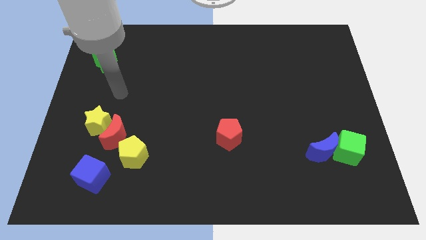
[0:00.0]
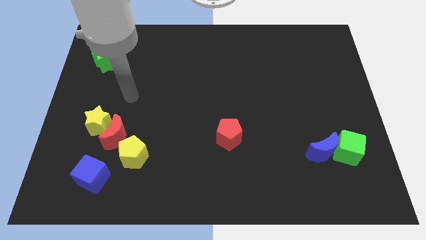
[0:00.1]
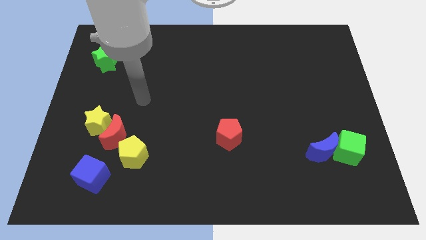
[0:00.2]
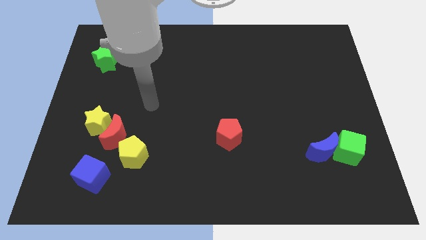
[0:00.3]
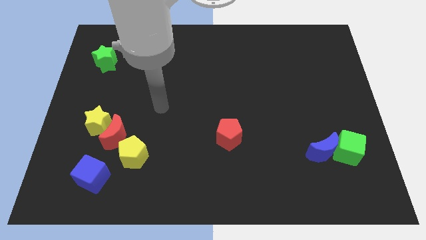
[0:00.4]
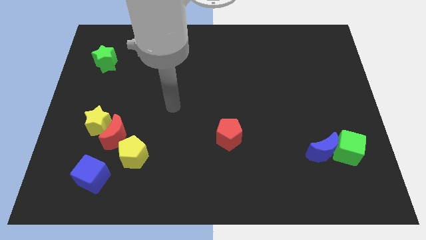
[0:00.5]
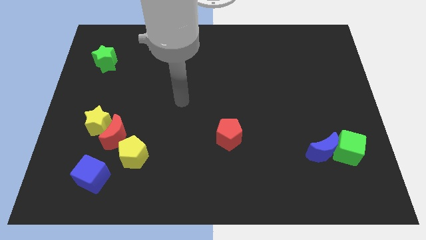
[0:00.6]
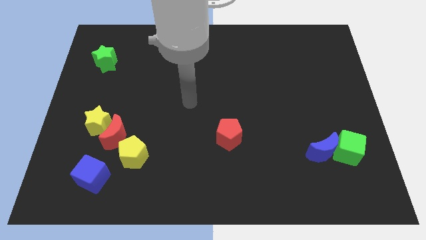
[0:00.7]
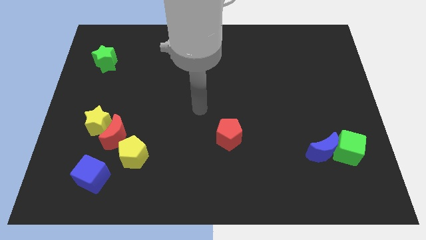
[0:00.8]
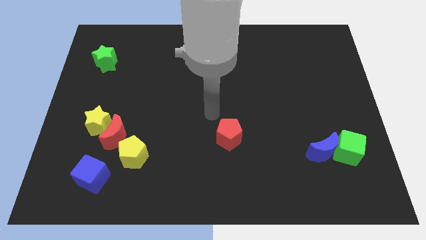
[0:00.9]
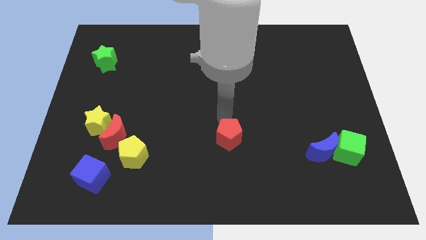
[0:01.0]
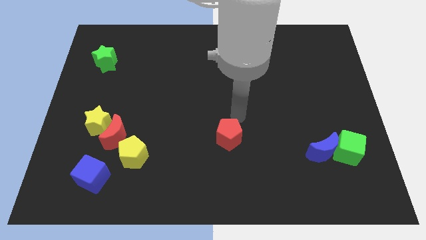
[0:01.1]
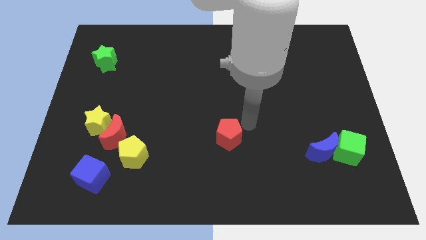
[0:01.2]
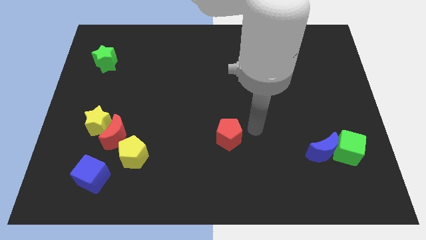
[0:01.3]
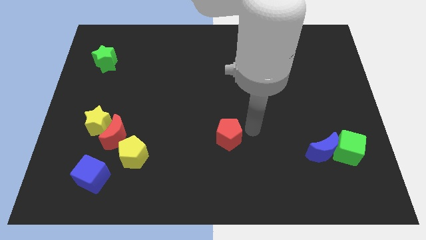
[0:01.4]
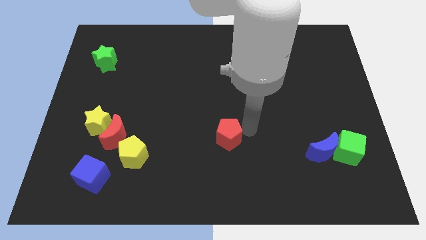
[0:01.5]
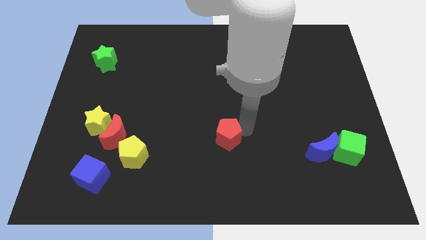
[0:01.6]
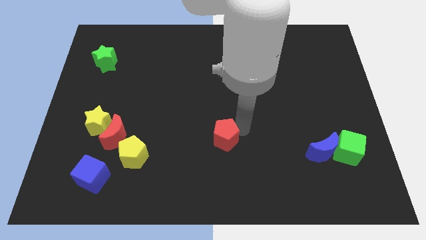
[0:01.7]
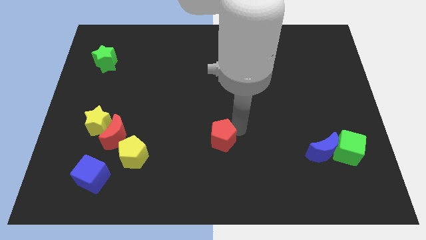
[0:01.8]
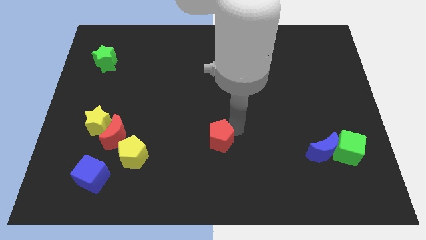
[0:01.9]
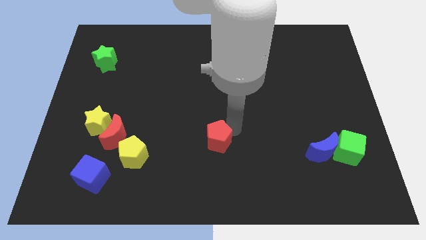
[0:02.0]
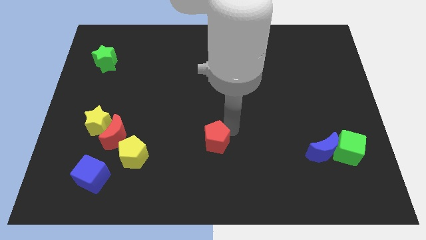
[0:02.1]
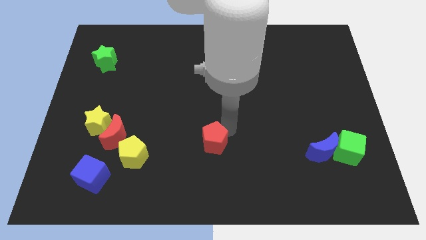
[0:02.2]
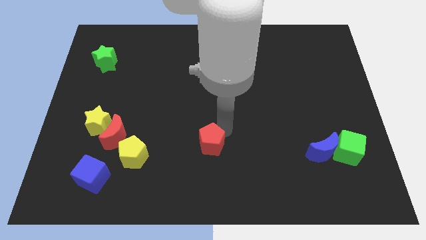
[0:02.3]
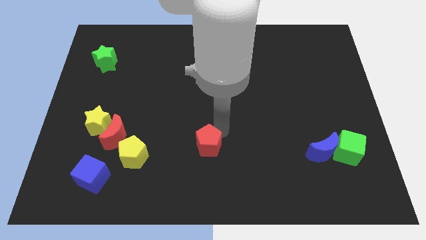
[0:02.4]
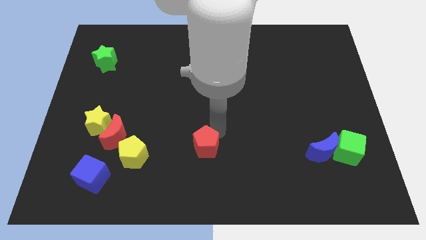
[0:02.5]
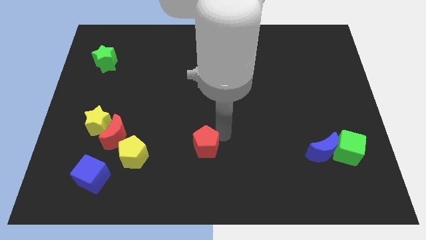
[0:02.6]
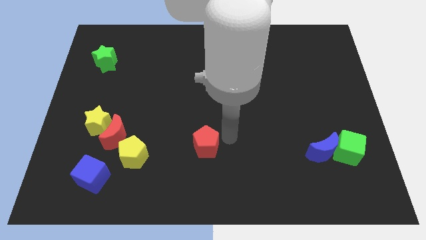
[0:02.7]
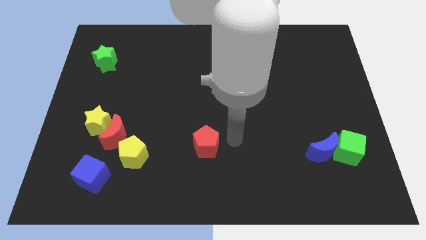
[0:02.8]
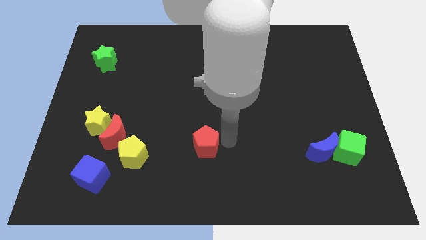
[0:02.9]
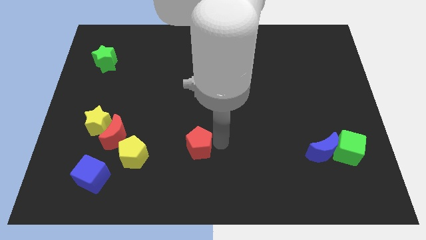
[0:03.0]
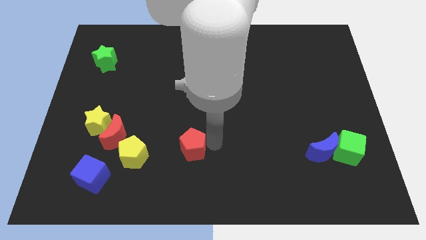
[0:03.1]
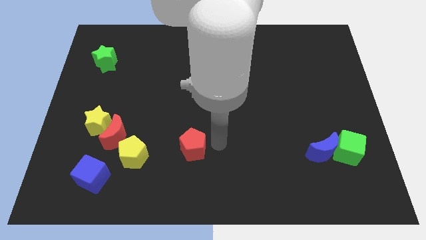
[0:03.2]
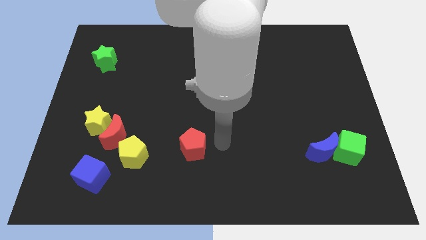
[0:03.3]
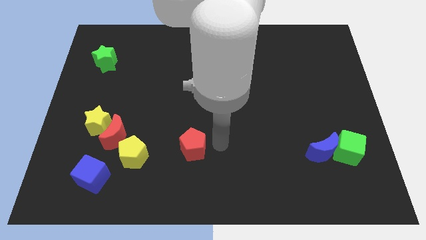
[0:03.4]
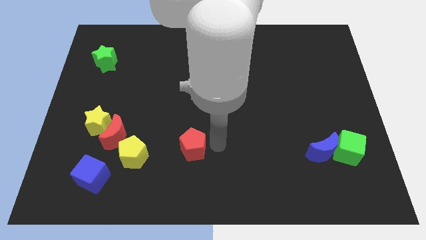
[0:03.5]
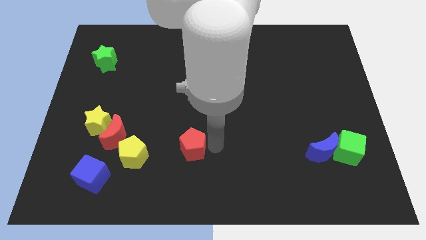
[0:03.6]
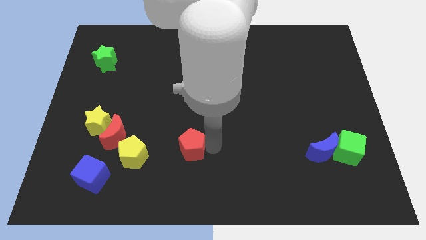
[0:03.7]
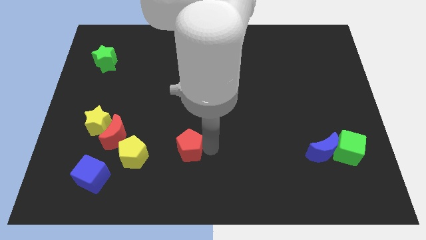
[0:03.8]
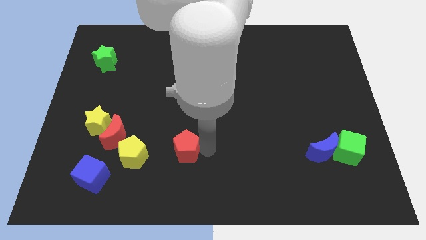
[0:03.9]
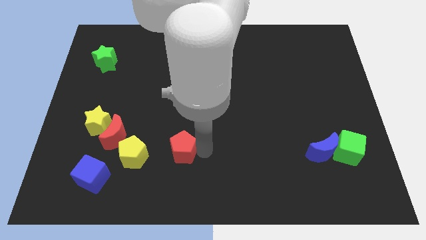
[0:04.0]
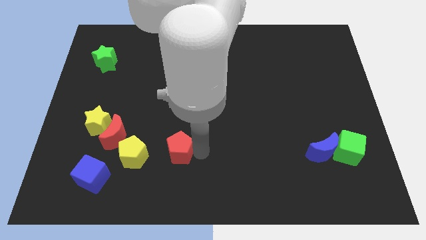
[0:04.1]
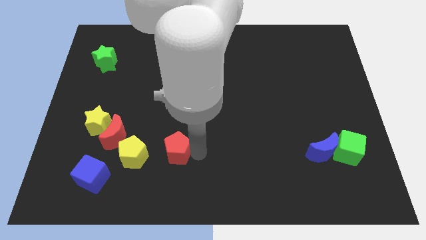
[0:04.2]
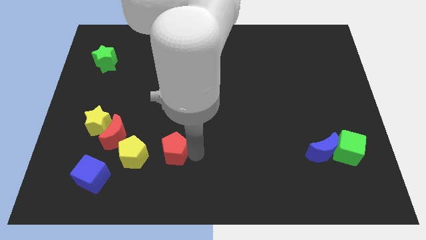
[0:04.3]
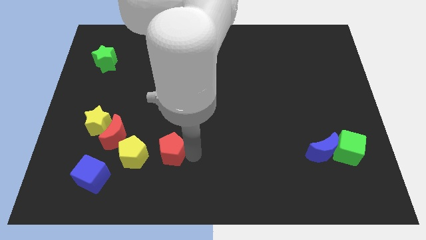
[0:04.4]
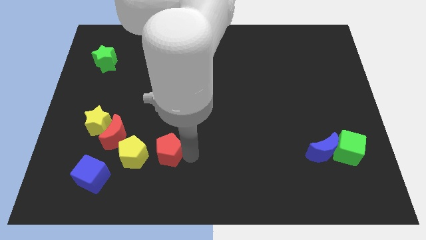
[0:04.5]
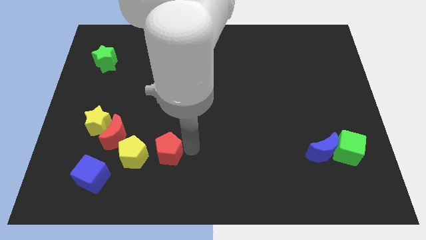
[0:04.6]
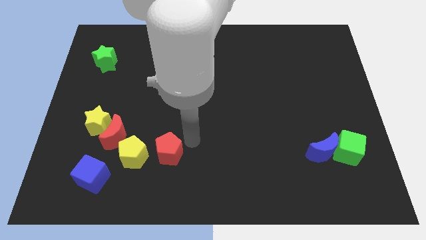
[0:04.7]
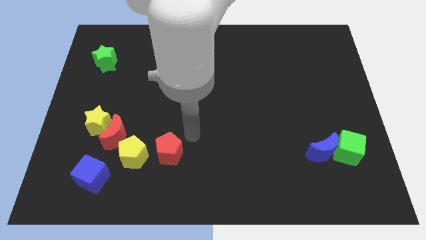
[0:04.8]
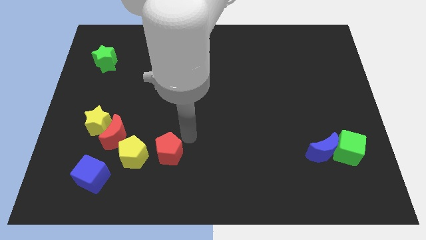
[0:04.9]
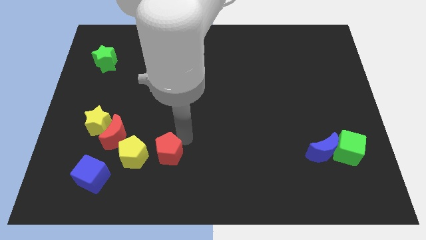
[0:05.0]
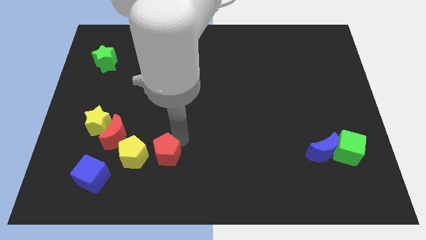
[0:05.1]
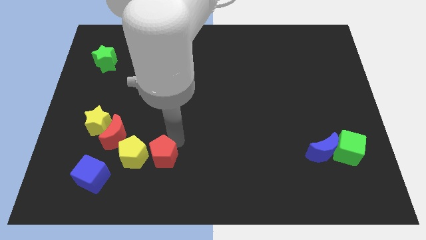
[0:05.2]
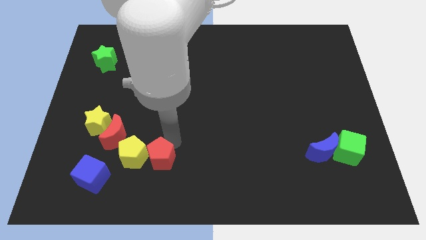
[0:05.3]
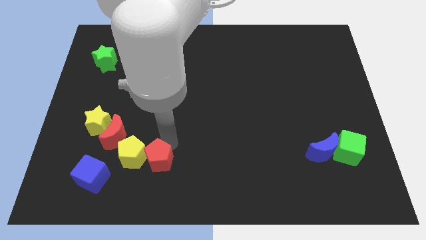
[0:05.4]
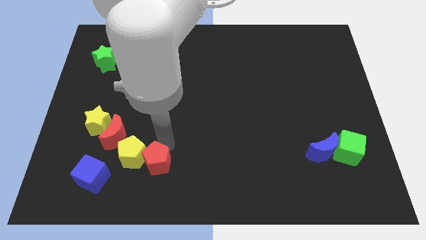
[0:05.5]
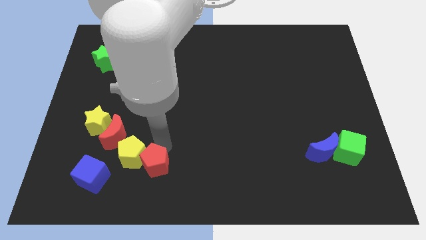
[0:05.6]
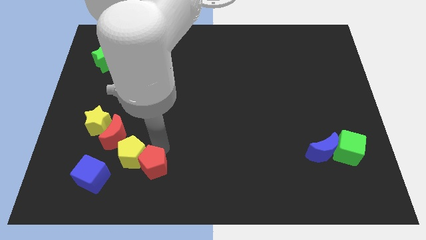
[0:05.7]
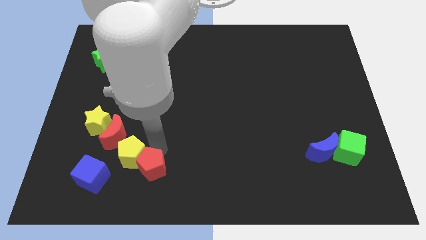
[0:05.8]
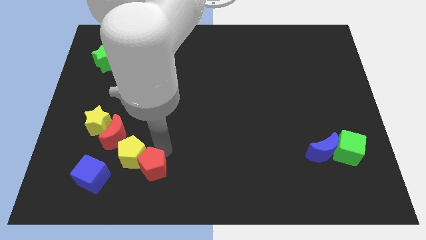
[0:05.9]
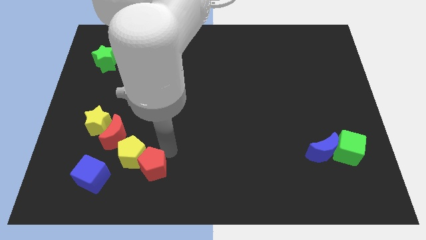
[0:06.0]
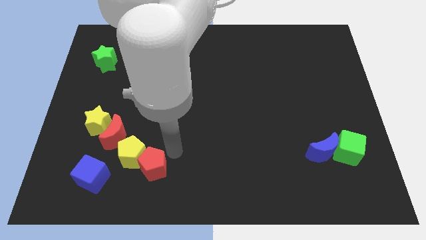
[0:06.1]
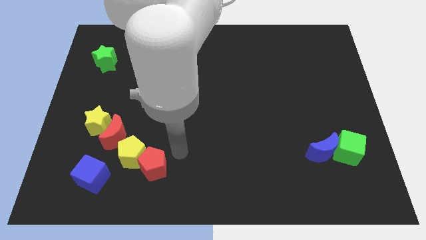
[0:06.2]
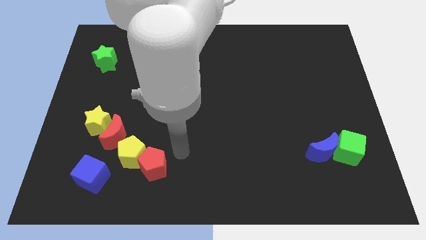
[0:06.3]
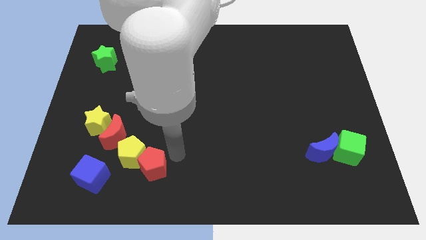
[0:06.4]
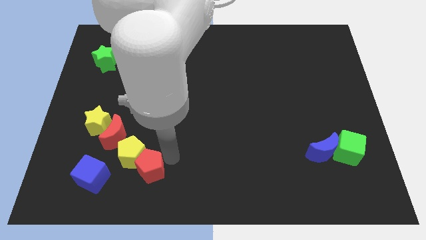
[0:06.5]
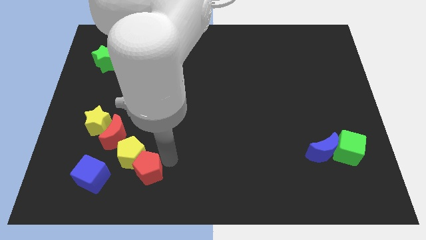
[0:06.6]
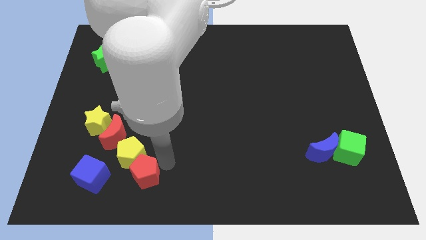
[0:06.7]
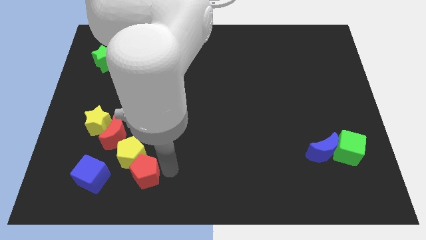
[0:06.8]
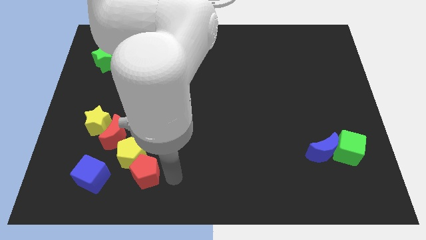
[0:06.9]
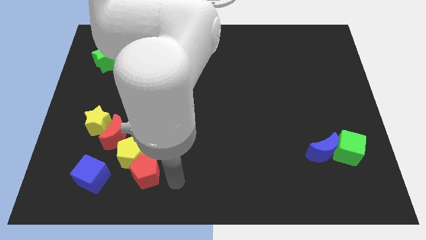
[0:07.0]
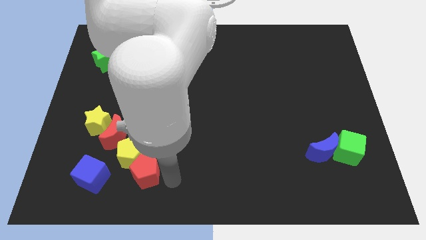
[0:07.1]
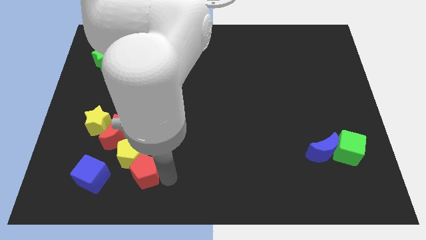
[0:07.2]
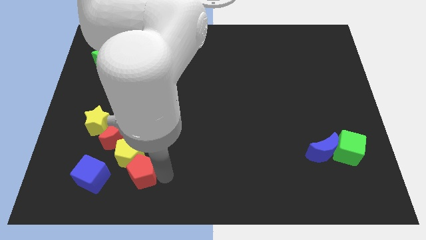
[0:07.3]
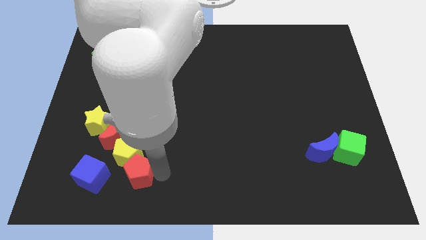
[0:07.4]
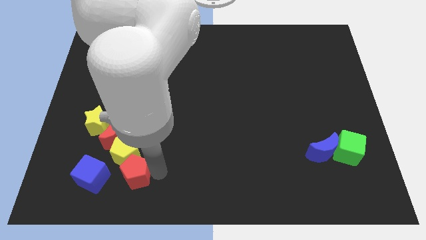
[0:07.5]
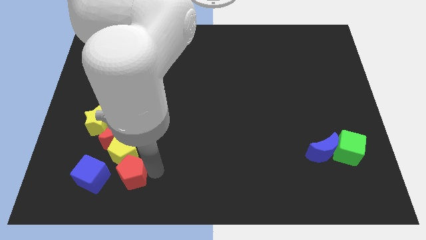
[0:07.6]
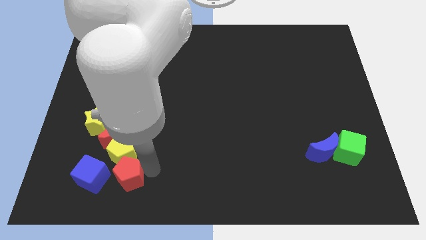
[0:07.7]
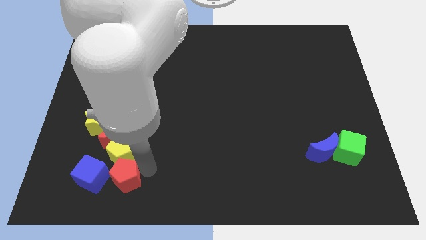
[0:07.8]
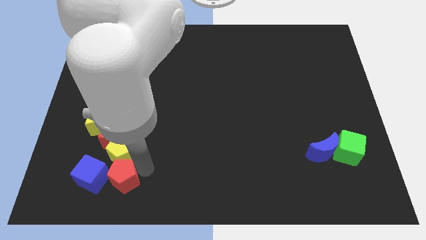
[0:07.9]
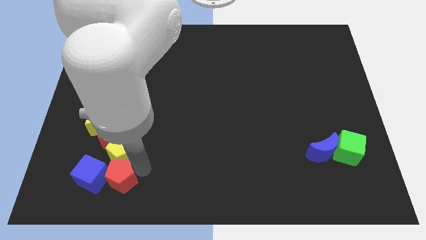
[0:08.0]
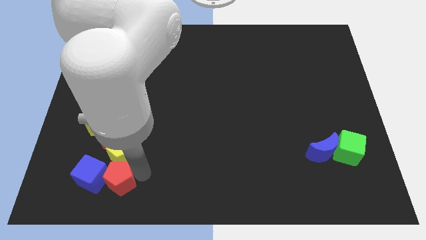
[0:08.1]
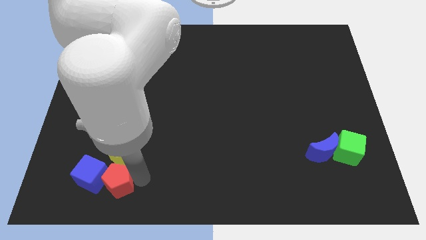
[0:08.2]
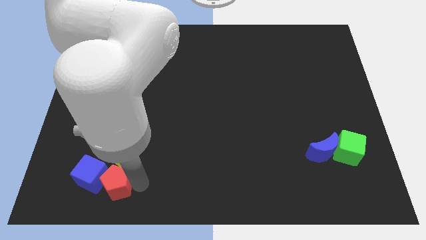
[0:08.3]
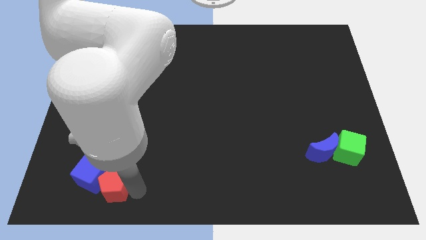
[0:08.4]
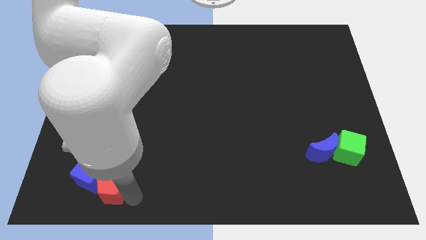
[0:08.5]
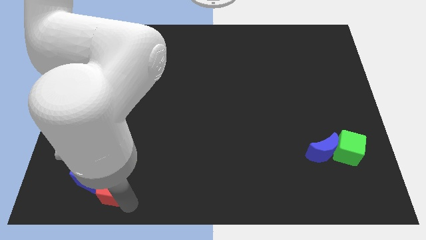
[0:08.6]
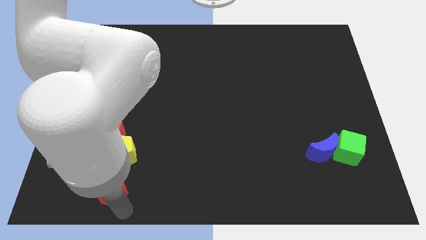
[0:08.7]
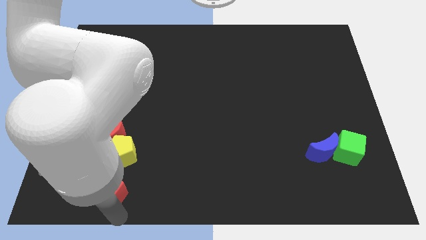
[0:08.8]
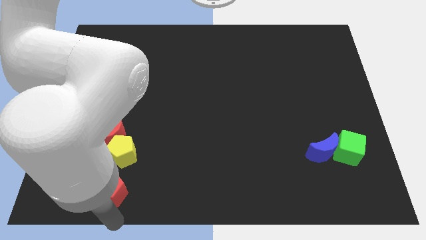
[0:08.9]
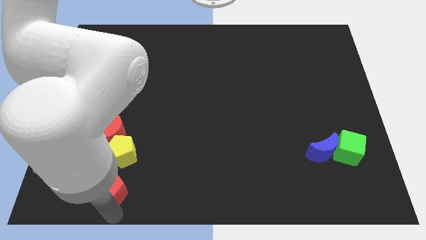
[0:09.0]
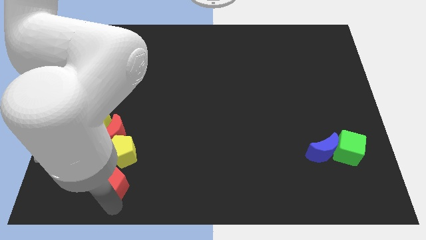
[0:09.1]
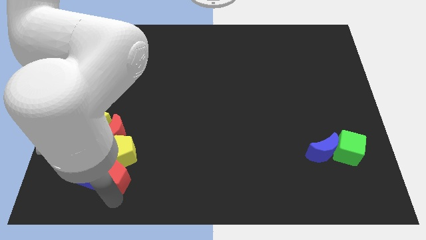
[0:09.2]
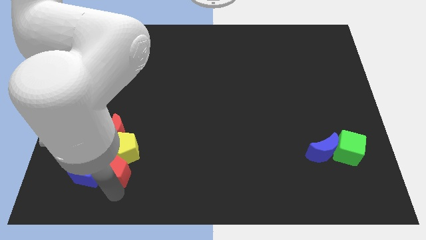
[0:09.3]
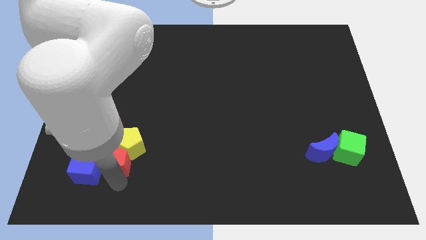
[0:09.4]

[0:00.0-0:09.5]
slide the red pentagon left
